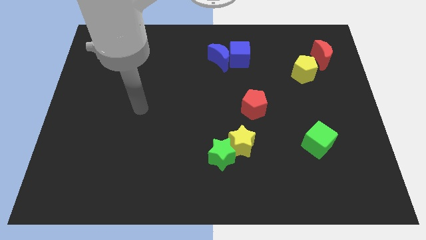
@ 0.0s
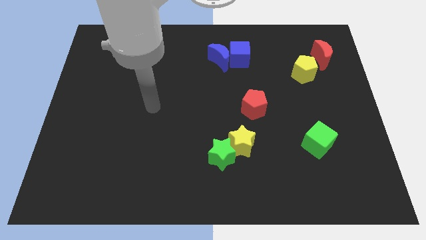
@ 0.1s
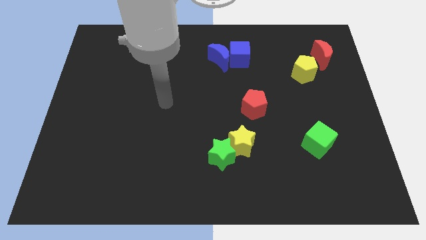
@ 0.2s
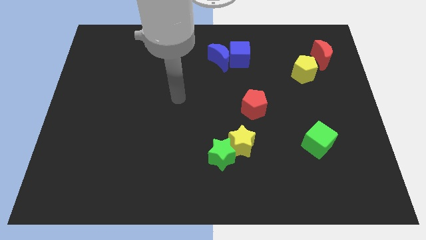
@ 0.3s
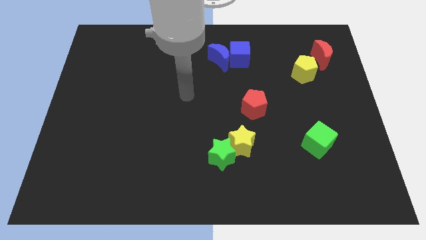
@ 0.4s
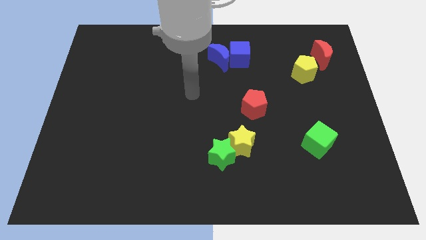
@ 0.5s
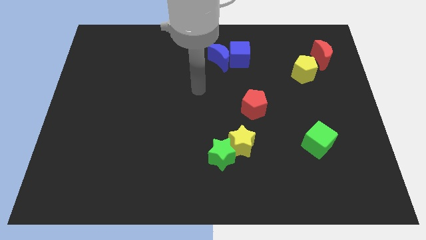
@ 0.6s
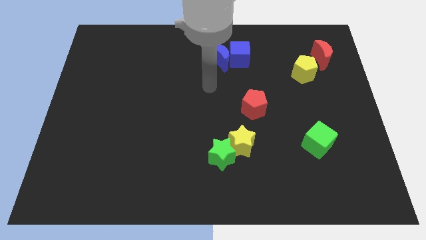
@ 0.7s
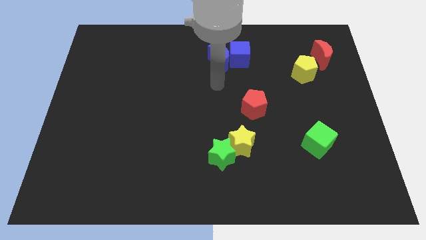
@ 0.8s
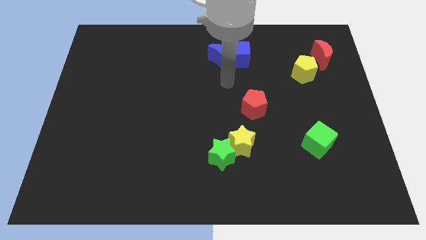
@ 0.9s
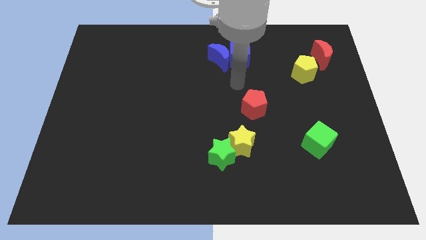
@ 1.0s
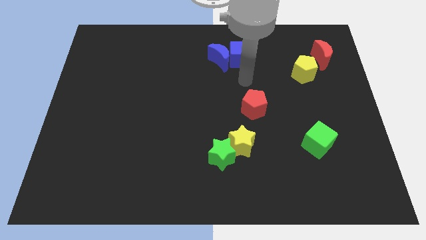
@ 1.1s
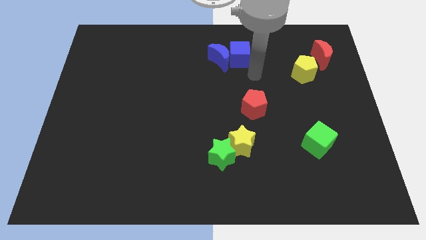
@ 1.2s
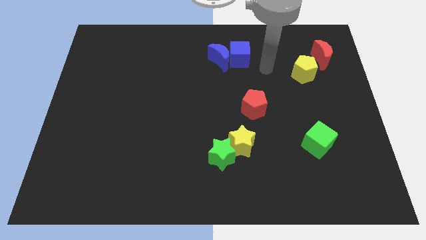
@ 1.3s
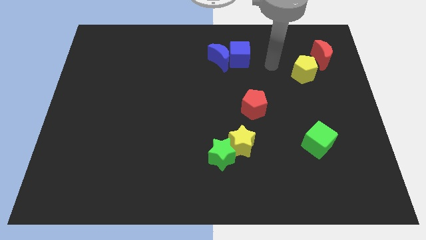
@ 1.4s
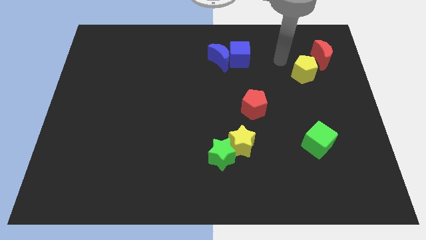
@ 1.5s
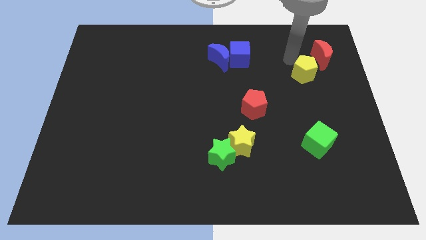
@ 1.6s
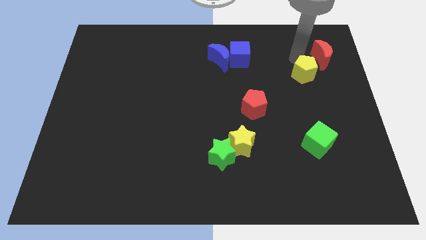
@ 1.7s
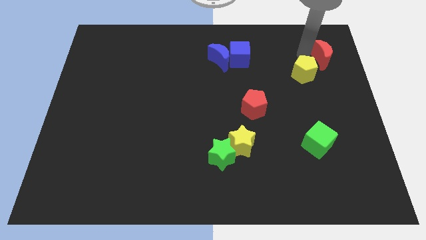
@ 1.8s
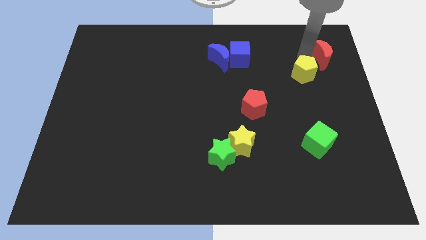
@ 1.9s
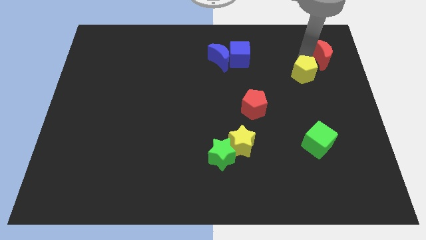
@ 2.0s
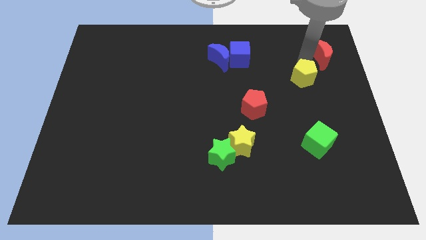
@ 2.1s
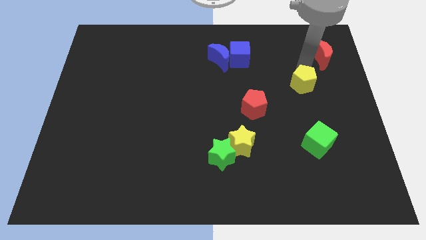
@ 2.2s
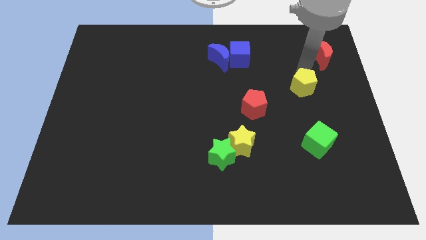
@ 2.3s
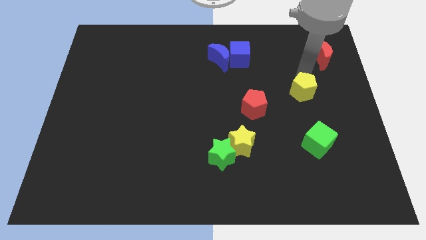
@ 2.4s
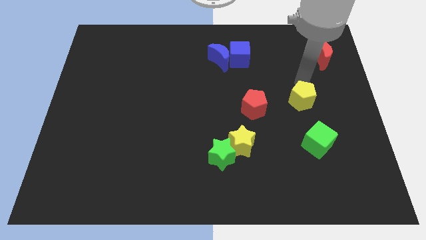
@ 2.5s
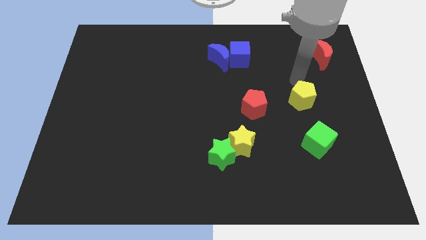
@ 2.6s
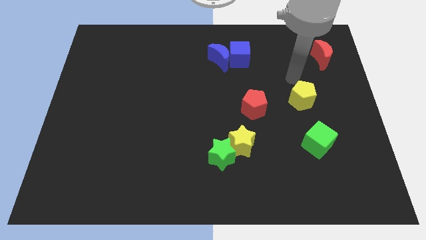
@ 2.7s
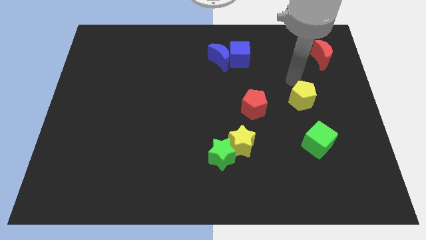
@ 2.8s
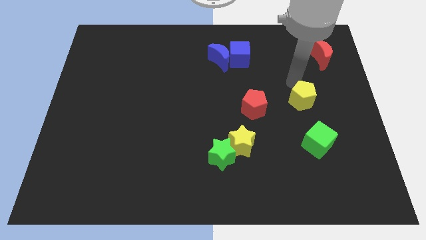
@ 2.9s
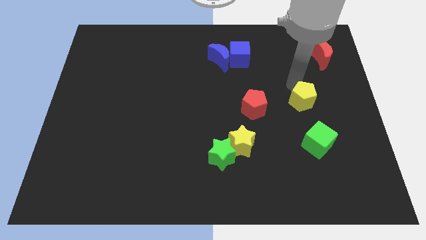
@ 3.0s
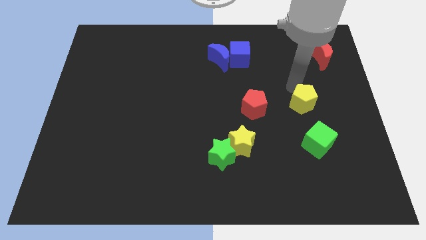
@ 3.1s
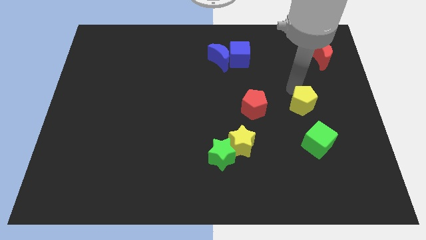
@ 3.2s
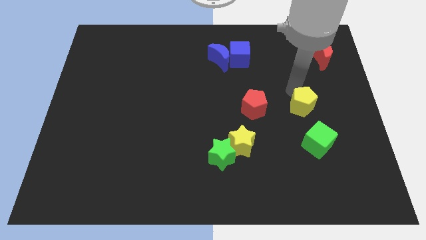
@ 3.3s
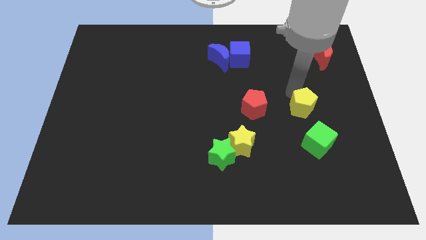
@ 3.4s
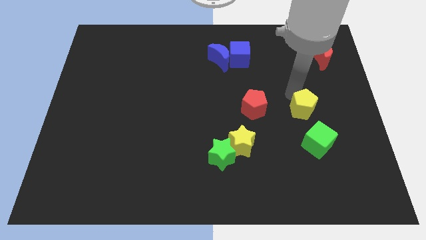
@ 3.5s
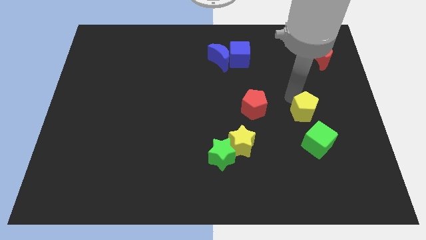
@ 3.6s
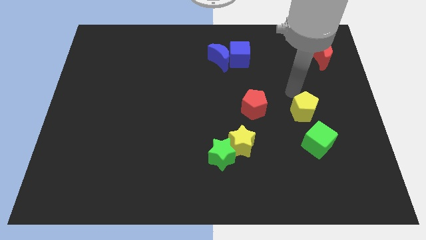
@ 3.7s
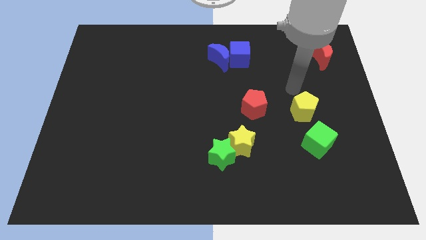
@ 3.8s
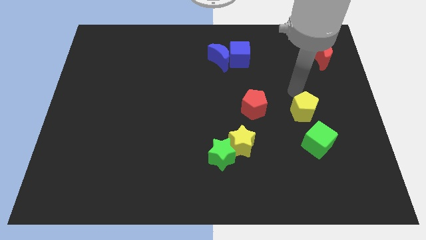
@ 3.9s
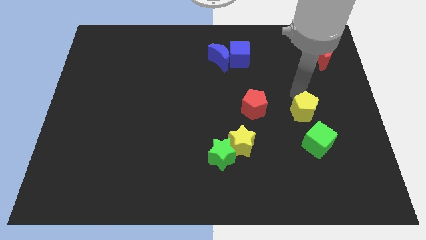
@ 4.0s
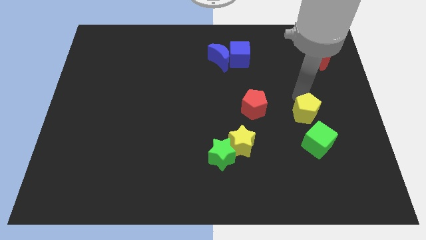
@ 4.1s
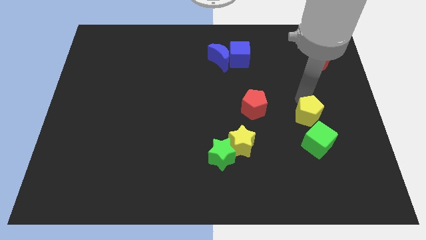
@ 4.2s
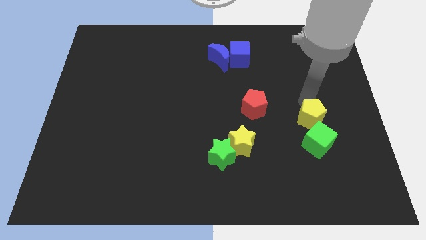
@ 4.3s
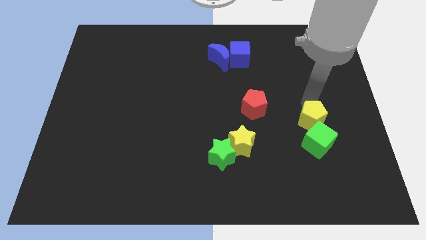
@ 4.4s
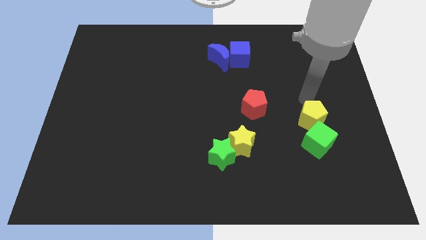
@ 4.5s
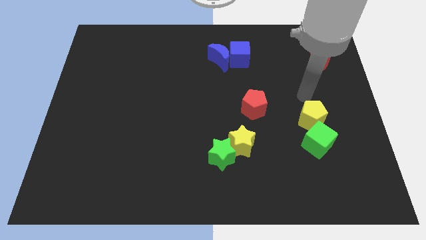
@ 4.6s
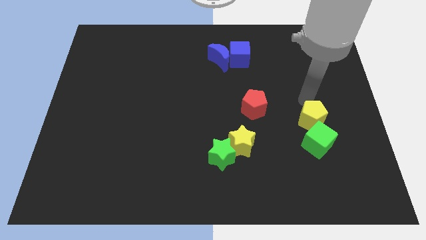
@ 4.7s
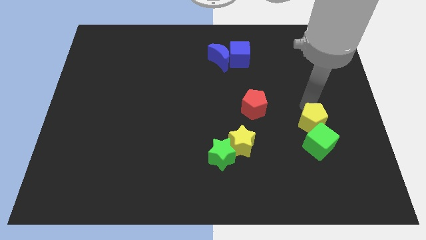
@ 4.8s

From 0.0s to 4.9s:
push the yellow pentagon close to the green cube

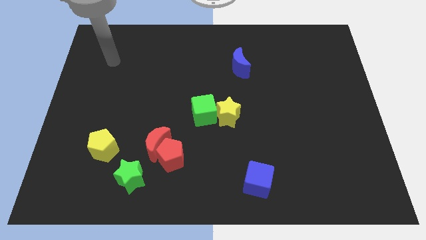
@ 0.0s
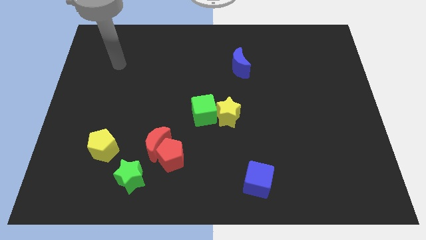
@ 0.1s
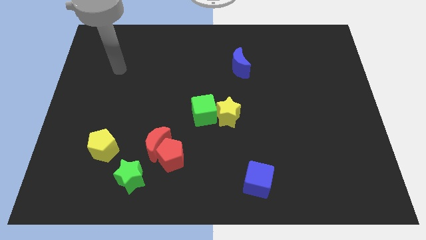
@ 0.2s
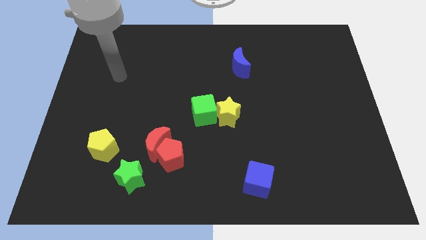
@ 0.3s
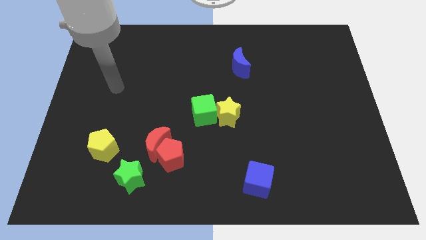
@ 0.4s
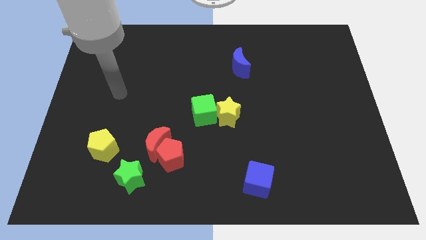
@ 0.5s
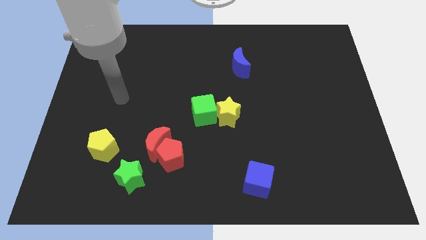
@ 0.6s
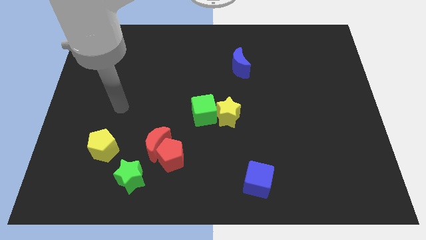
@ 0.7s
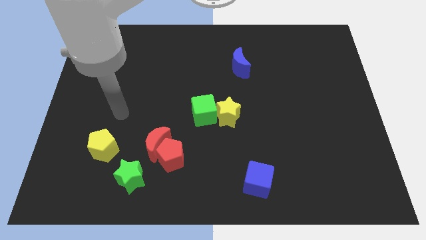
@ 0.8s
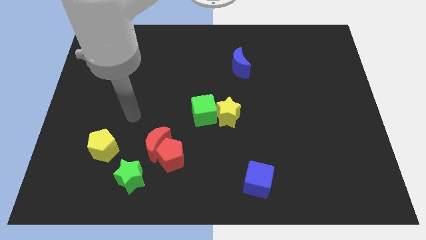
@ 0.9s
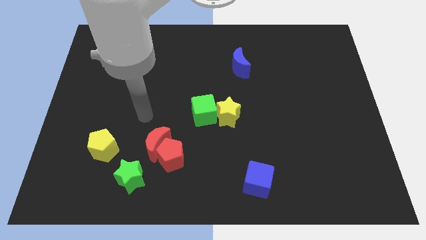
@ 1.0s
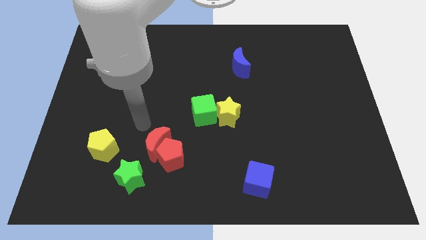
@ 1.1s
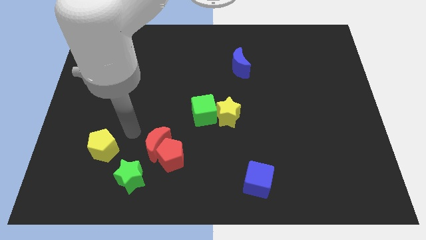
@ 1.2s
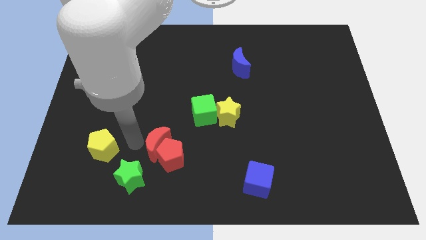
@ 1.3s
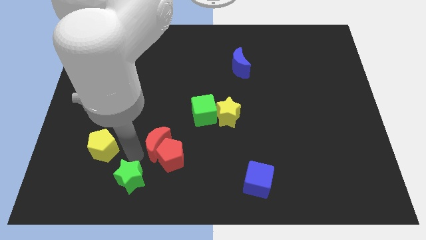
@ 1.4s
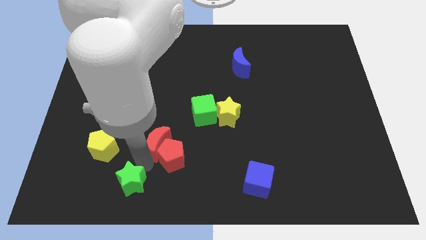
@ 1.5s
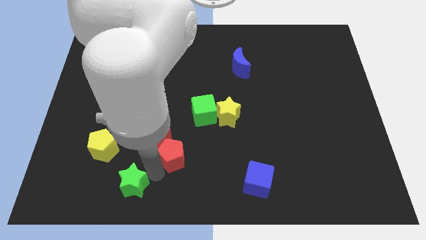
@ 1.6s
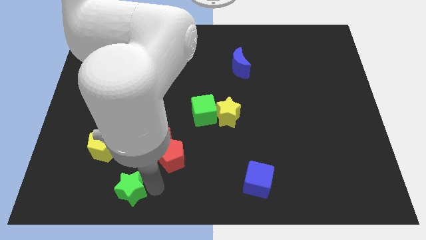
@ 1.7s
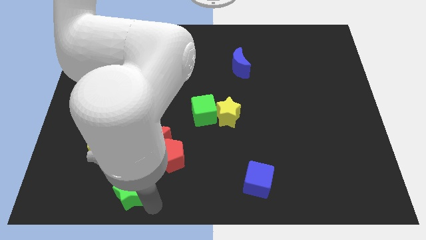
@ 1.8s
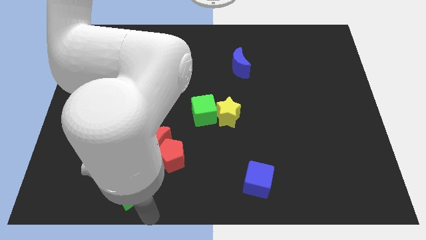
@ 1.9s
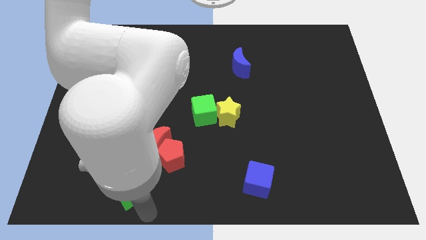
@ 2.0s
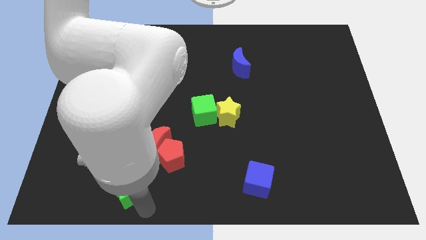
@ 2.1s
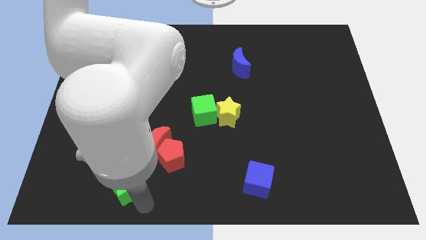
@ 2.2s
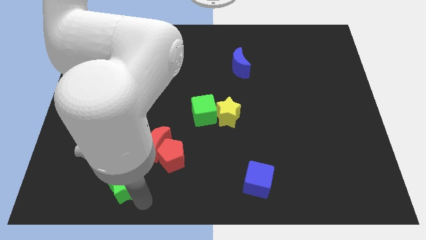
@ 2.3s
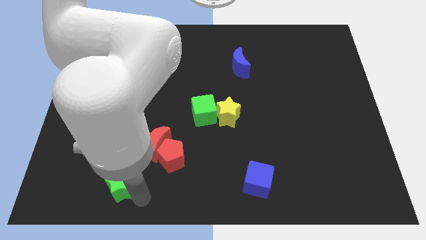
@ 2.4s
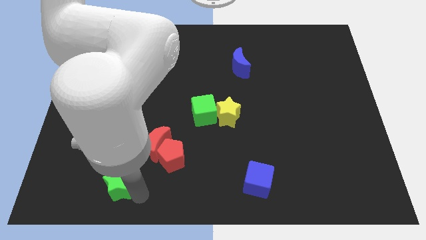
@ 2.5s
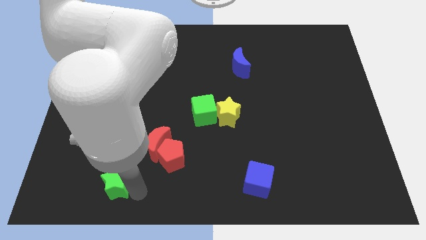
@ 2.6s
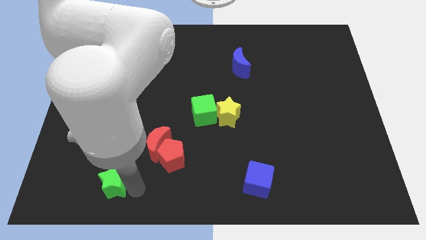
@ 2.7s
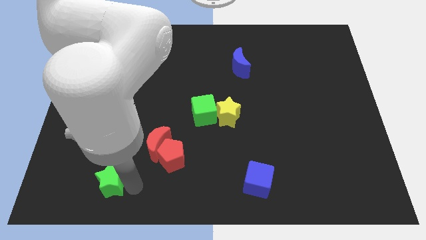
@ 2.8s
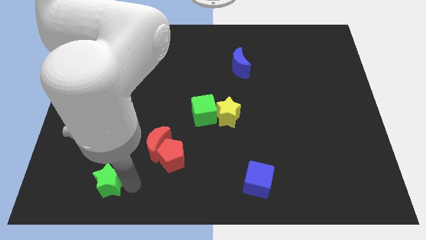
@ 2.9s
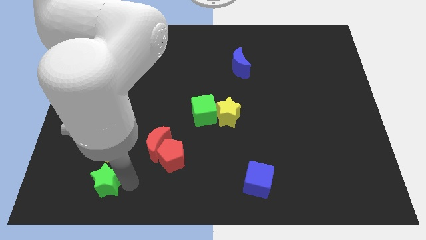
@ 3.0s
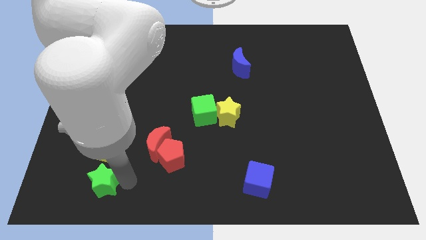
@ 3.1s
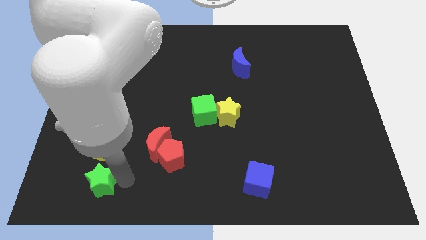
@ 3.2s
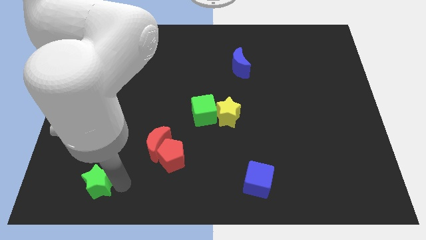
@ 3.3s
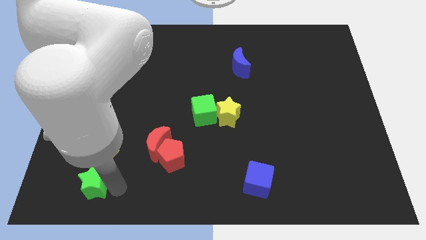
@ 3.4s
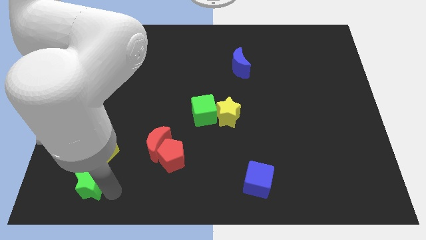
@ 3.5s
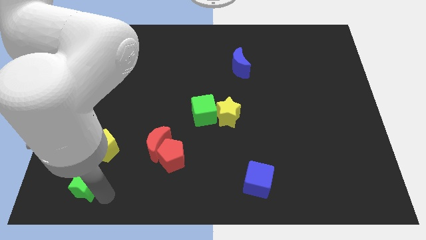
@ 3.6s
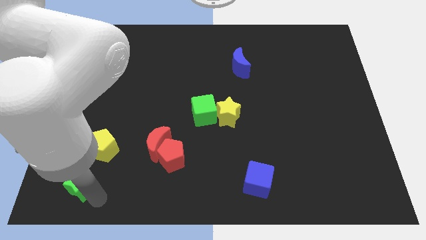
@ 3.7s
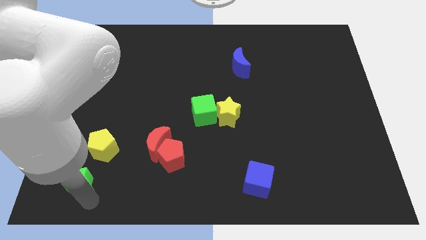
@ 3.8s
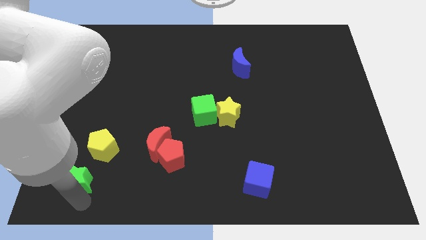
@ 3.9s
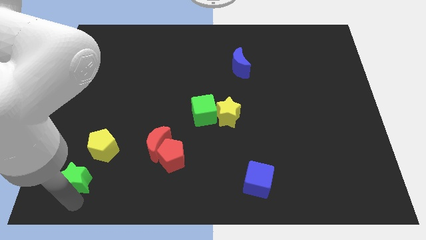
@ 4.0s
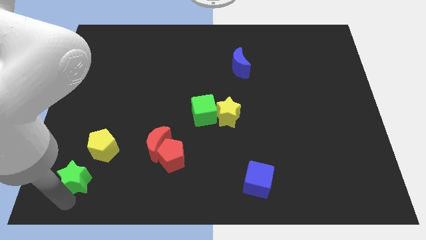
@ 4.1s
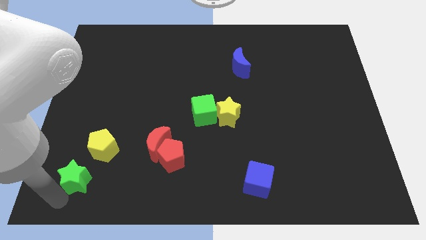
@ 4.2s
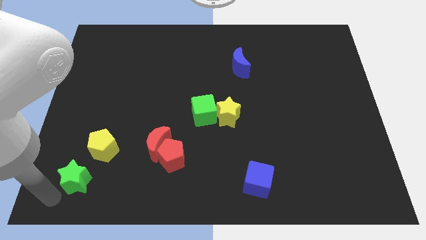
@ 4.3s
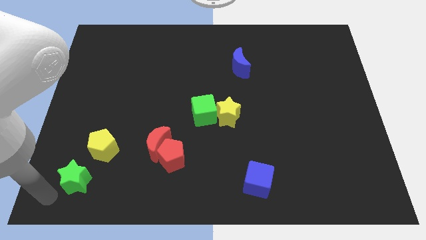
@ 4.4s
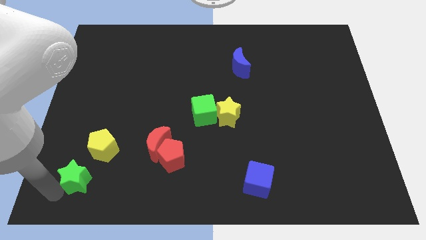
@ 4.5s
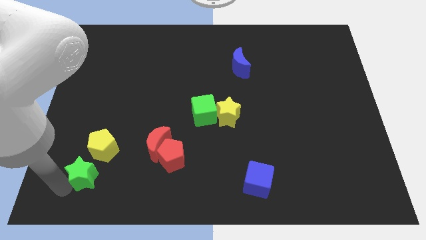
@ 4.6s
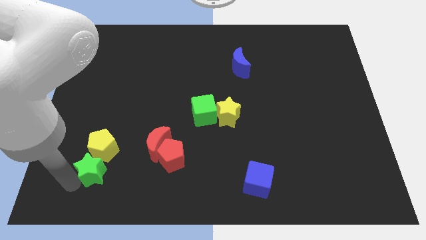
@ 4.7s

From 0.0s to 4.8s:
slide the green star to the yellow pentagon
